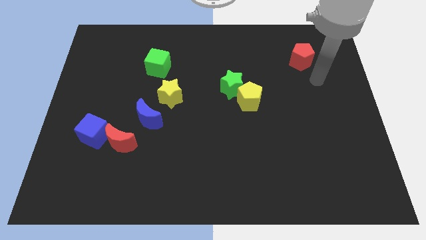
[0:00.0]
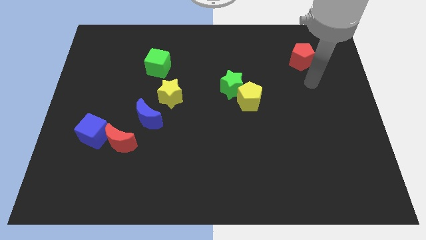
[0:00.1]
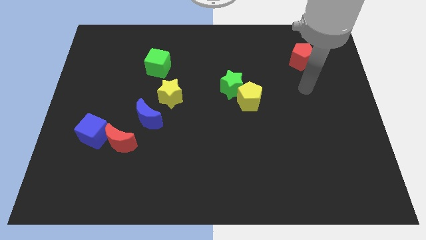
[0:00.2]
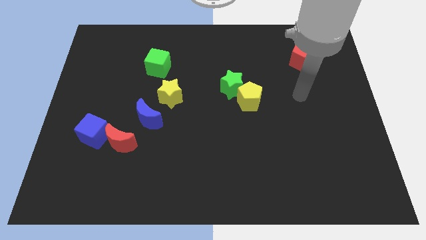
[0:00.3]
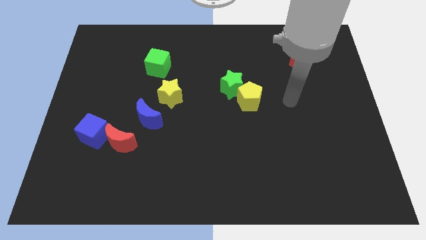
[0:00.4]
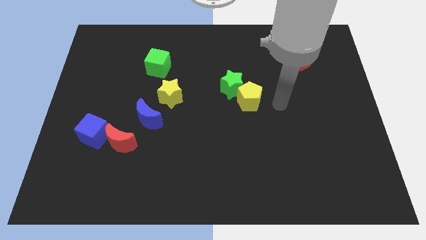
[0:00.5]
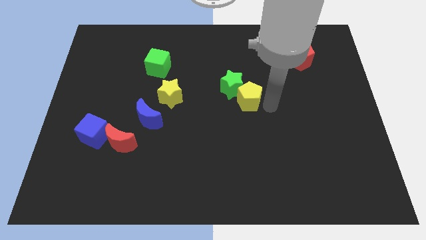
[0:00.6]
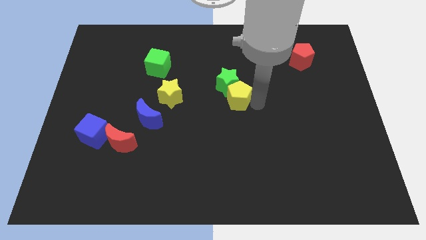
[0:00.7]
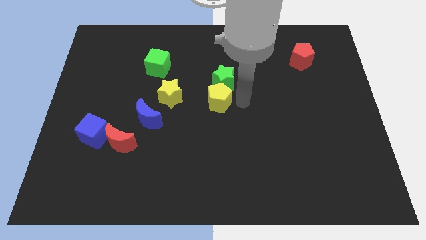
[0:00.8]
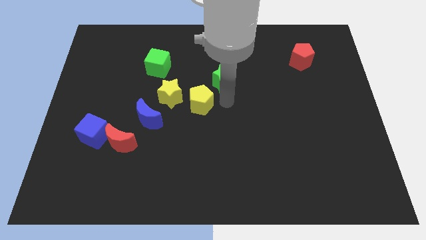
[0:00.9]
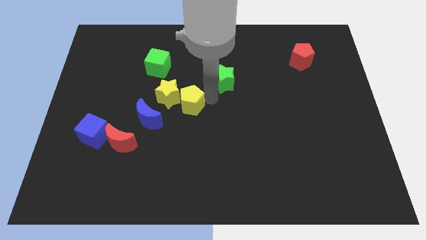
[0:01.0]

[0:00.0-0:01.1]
separate the green star from the yellow pentagon

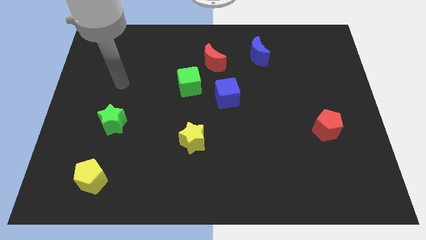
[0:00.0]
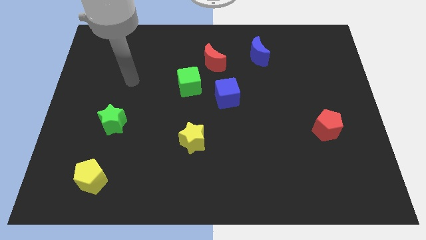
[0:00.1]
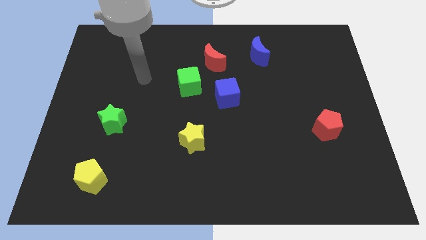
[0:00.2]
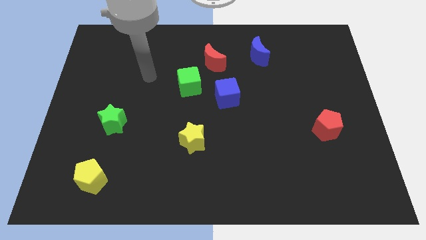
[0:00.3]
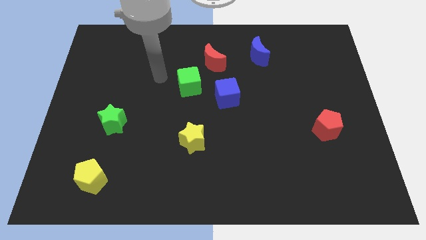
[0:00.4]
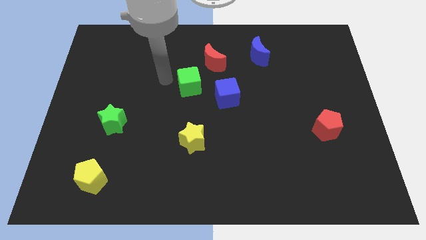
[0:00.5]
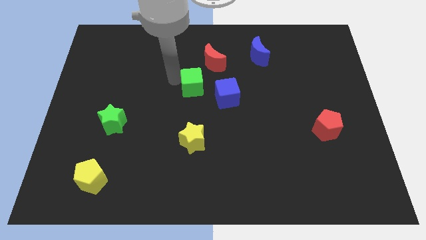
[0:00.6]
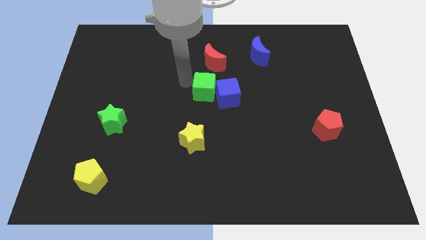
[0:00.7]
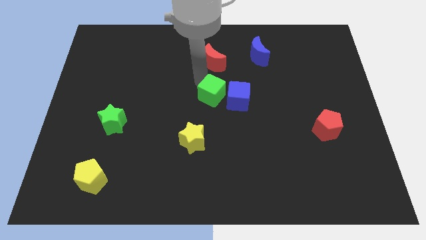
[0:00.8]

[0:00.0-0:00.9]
pull the red moon apart from the green cube

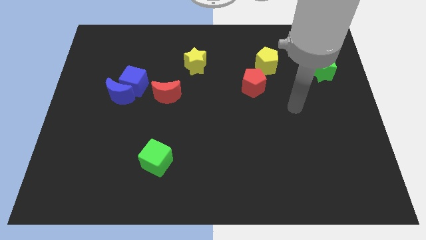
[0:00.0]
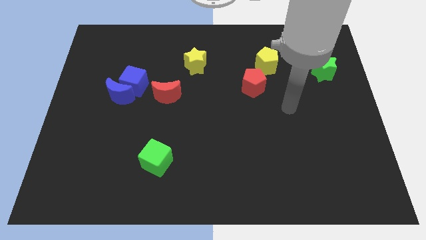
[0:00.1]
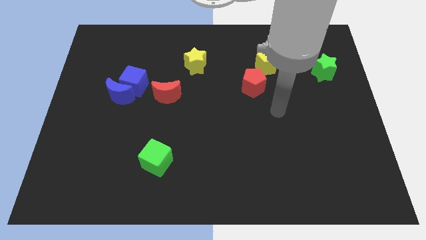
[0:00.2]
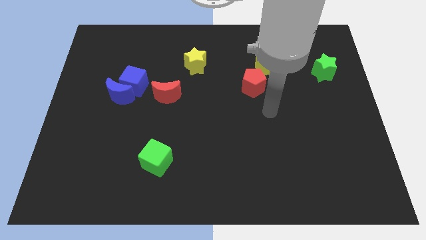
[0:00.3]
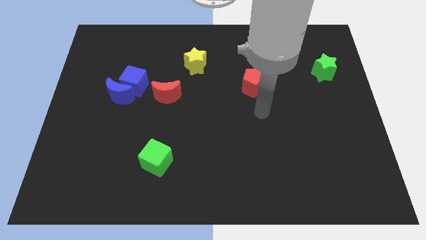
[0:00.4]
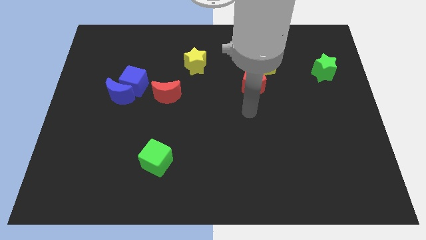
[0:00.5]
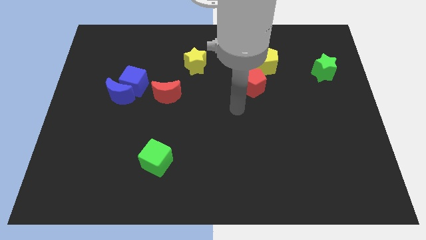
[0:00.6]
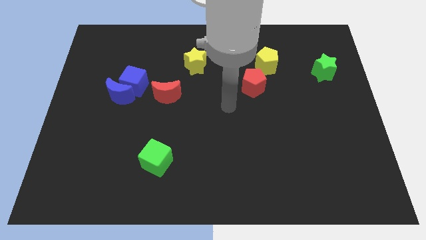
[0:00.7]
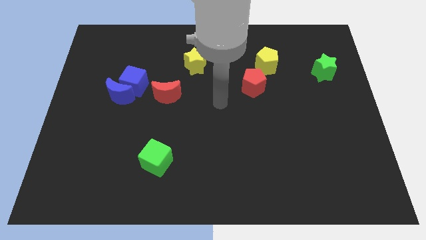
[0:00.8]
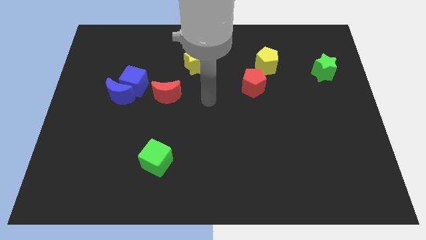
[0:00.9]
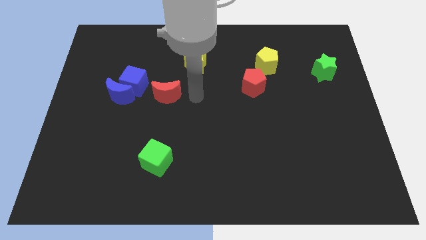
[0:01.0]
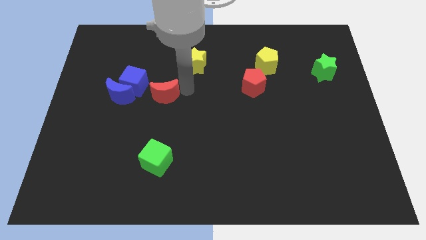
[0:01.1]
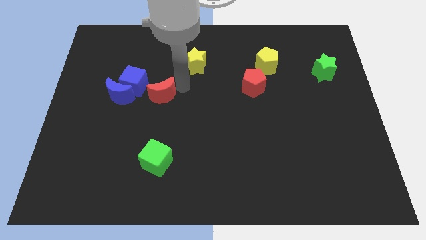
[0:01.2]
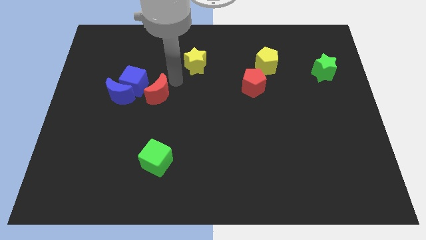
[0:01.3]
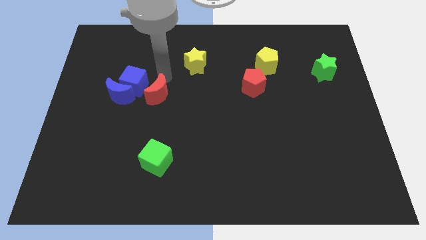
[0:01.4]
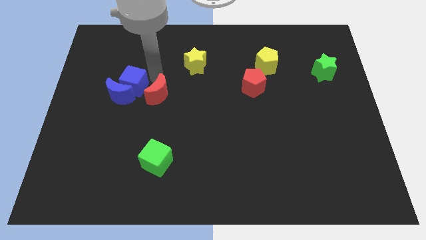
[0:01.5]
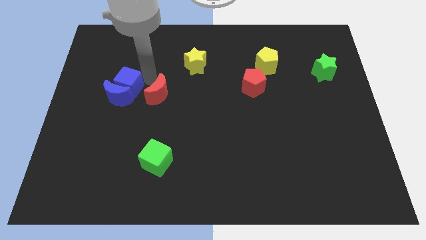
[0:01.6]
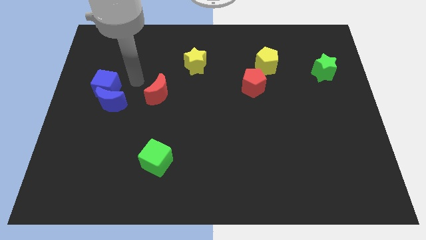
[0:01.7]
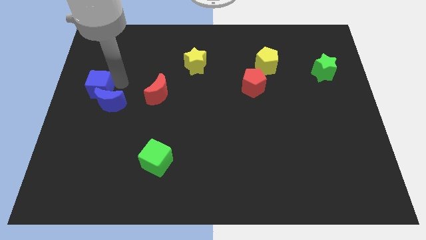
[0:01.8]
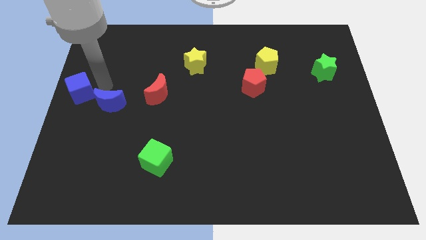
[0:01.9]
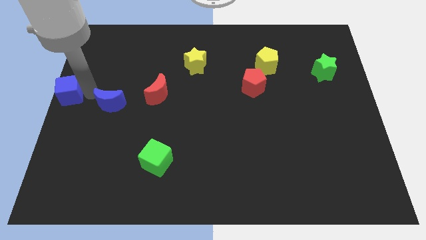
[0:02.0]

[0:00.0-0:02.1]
separate the blue moon from the blue cube

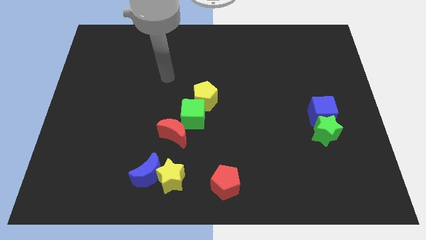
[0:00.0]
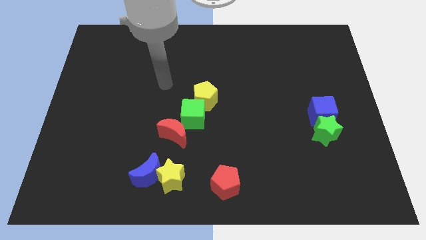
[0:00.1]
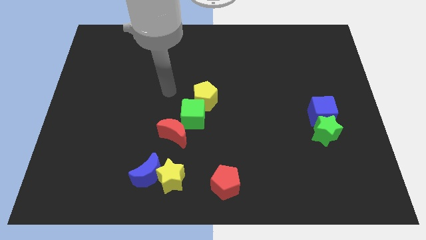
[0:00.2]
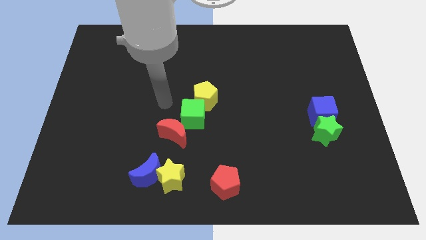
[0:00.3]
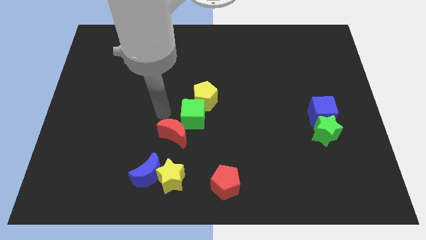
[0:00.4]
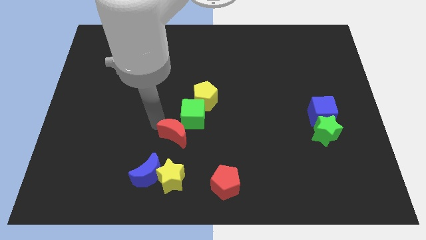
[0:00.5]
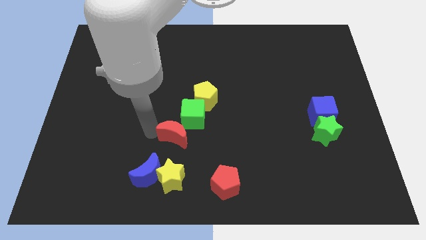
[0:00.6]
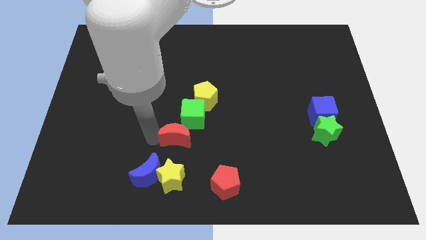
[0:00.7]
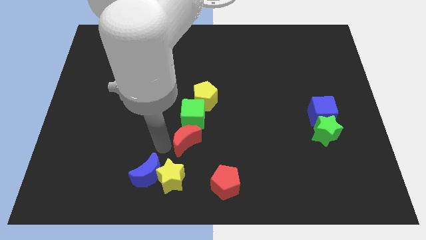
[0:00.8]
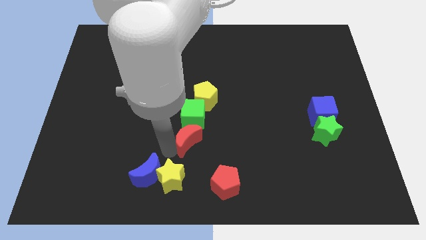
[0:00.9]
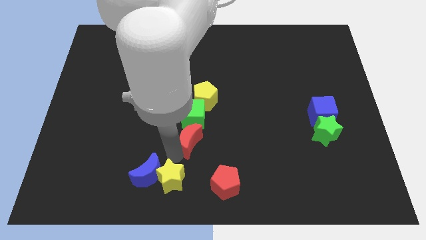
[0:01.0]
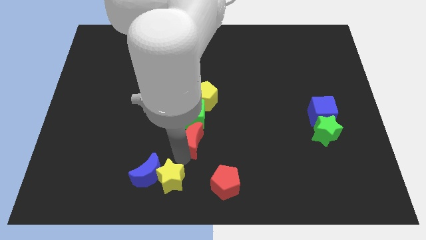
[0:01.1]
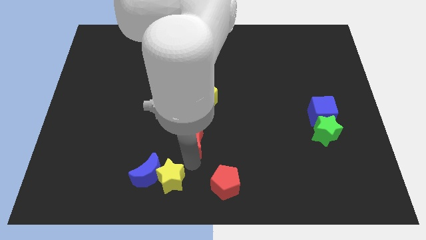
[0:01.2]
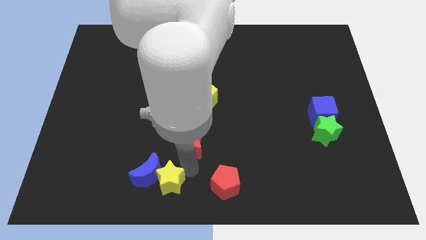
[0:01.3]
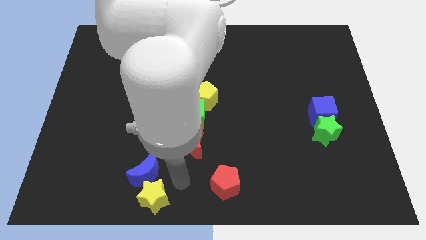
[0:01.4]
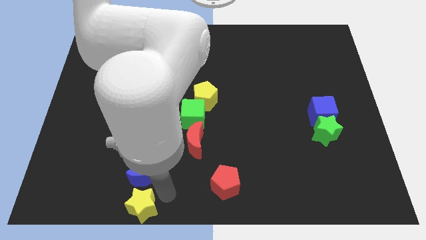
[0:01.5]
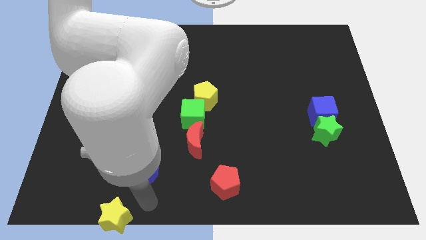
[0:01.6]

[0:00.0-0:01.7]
move the blue moon away from the yellow star

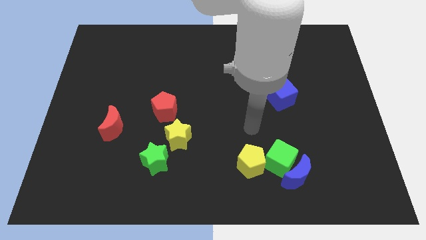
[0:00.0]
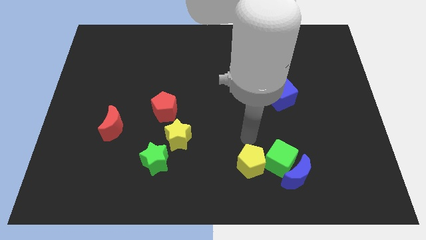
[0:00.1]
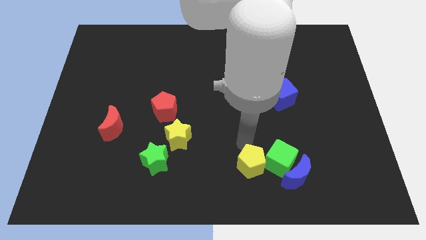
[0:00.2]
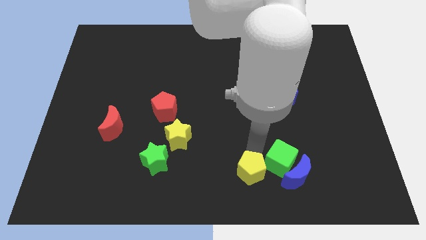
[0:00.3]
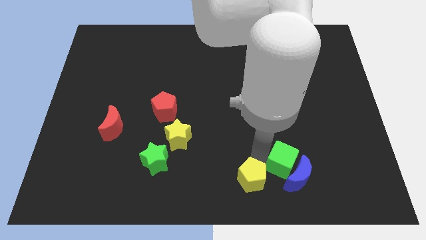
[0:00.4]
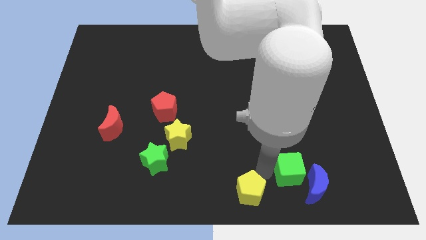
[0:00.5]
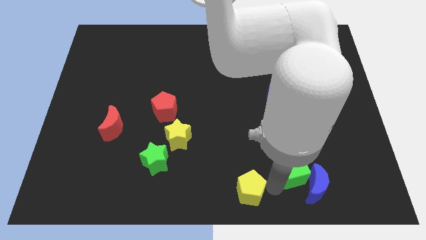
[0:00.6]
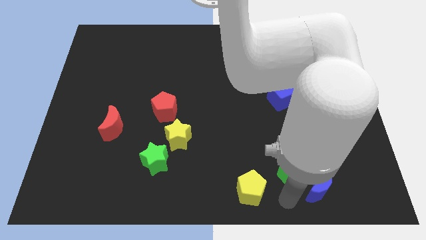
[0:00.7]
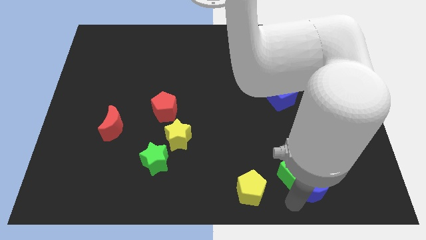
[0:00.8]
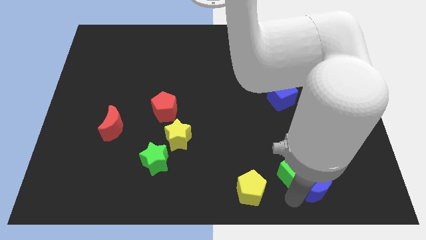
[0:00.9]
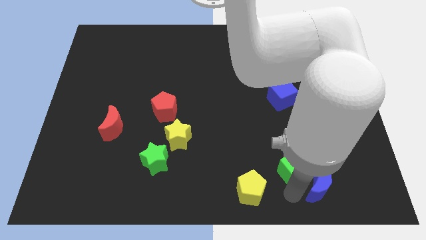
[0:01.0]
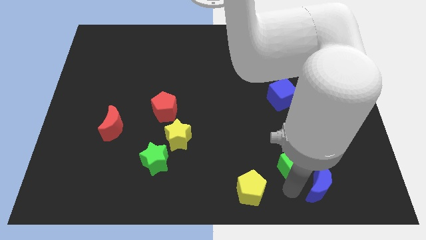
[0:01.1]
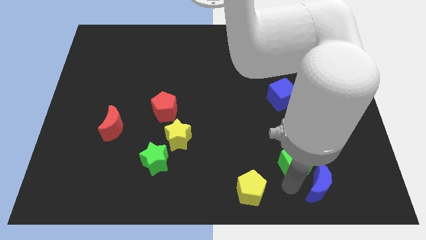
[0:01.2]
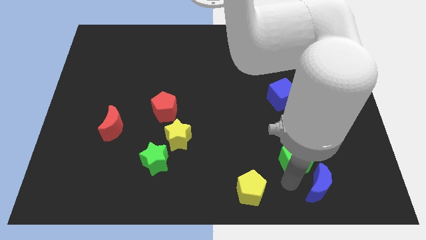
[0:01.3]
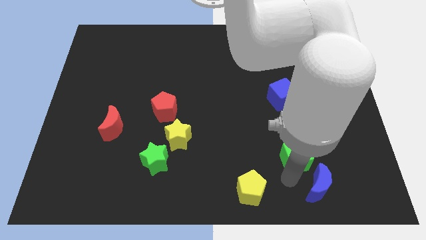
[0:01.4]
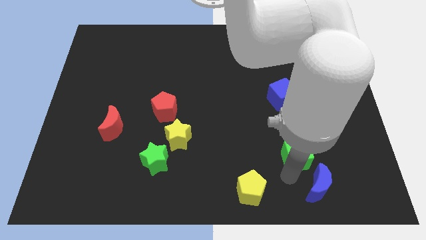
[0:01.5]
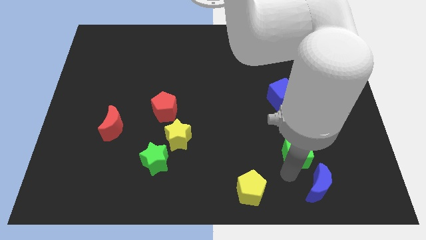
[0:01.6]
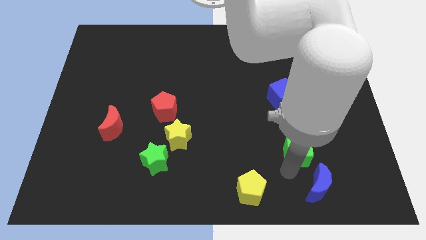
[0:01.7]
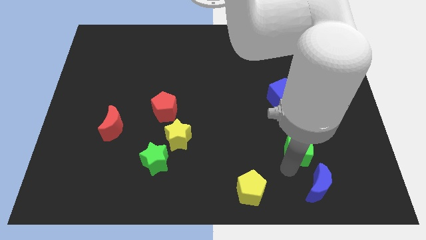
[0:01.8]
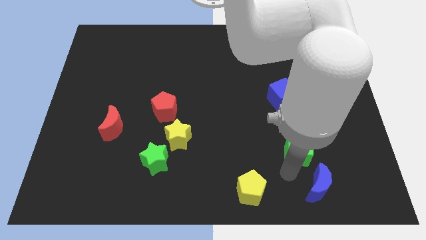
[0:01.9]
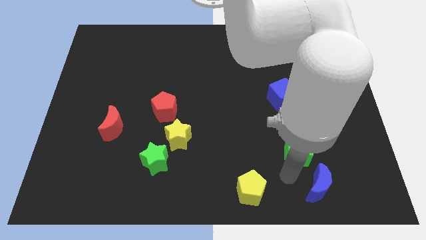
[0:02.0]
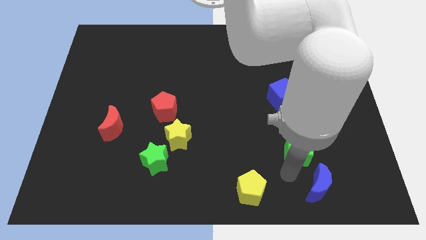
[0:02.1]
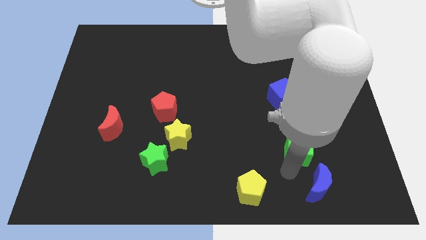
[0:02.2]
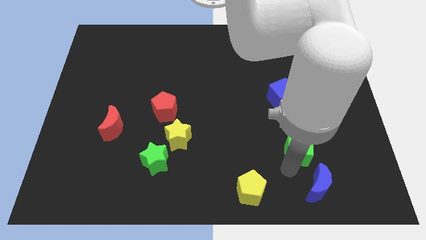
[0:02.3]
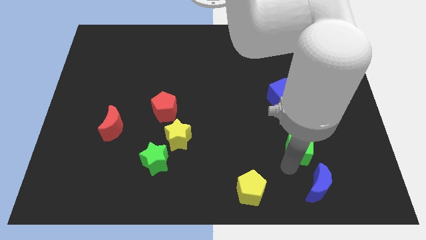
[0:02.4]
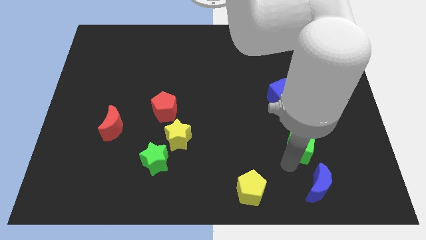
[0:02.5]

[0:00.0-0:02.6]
separate the green cube from the blue moon and yellow pentagon

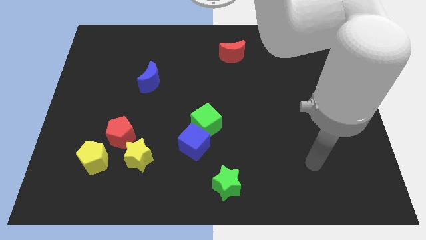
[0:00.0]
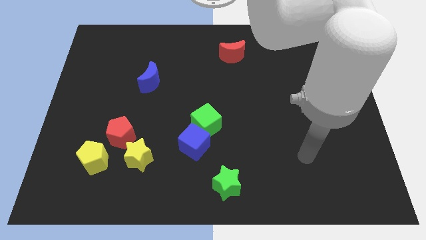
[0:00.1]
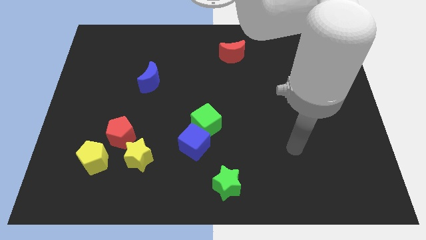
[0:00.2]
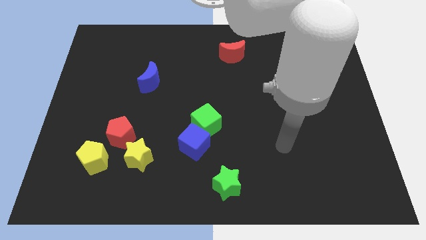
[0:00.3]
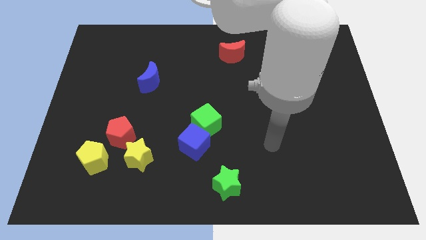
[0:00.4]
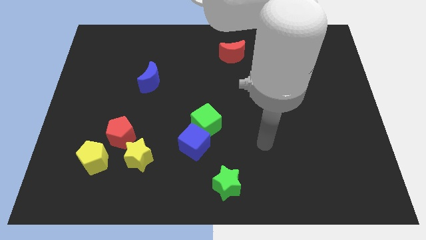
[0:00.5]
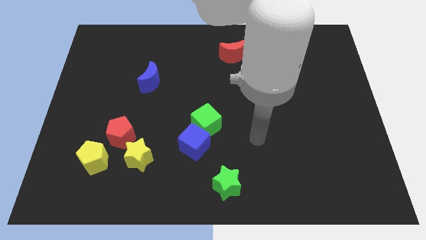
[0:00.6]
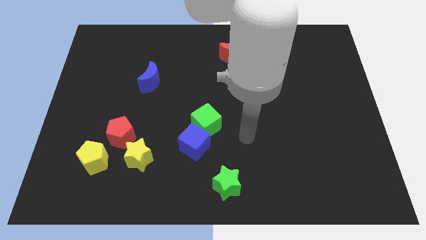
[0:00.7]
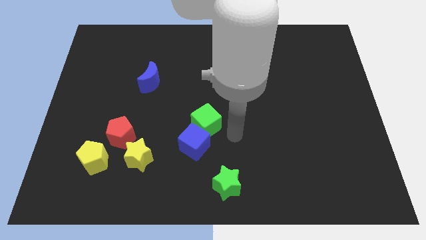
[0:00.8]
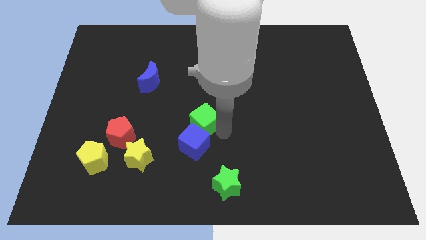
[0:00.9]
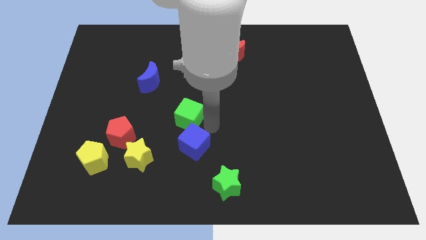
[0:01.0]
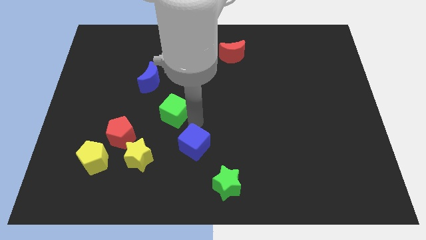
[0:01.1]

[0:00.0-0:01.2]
separate the blue cube from the green cube
